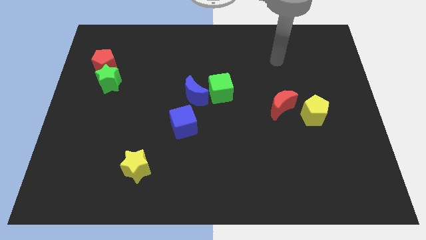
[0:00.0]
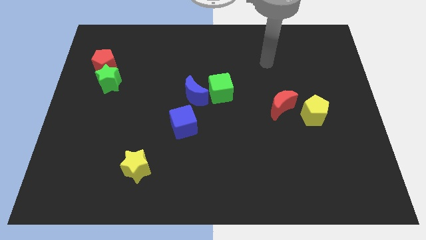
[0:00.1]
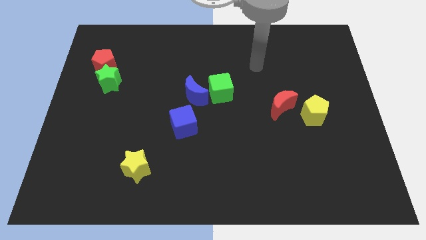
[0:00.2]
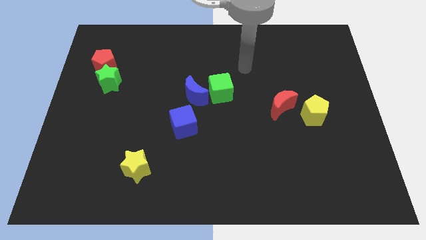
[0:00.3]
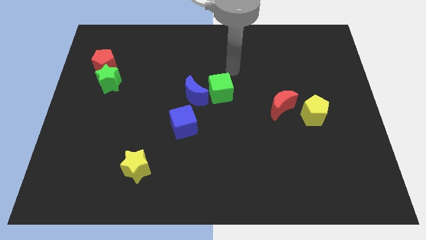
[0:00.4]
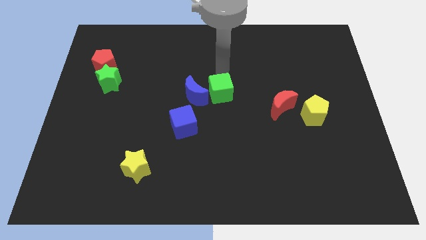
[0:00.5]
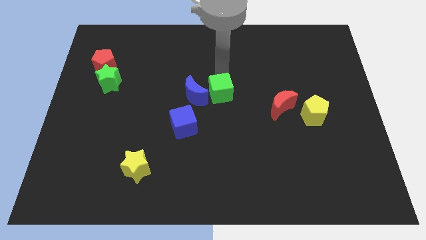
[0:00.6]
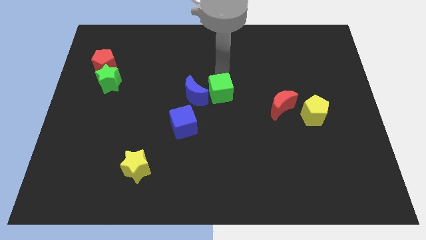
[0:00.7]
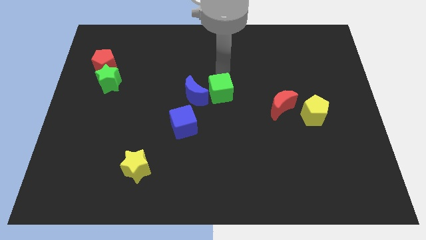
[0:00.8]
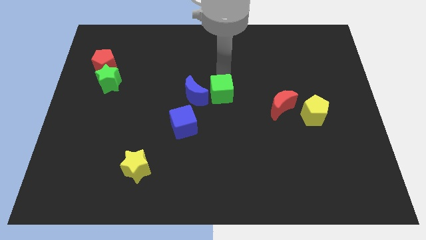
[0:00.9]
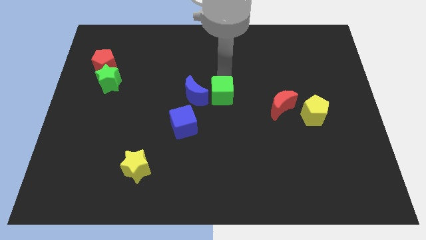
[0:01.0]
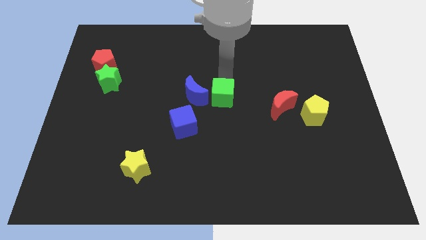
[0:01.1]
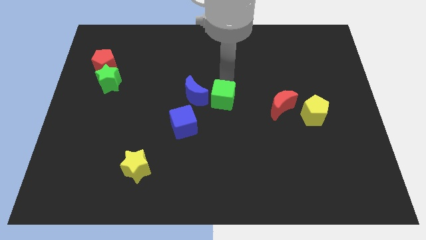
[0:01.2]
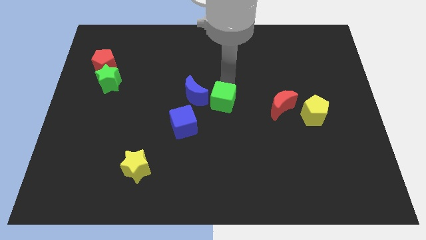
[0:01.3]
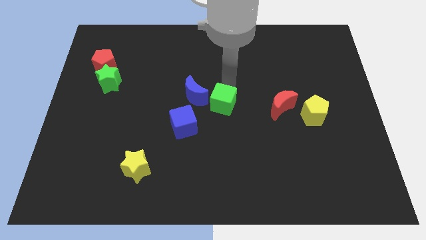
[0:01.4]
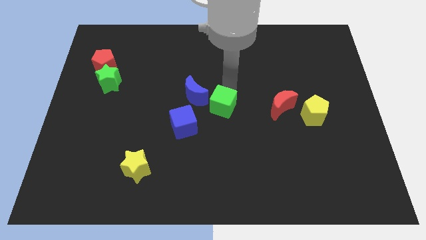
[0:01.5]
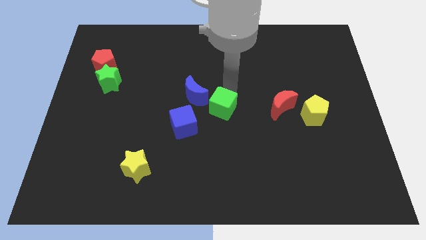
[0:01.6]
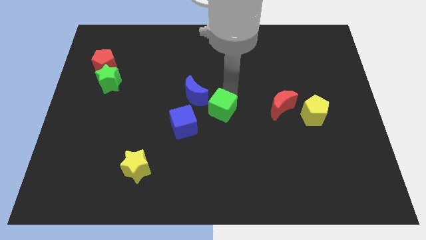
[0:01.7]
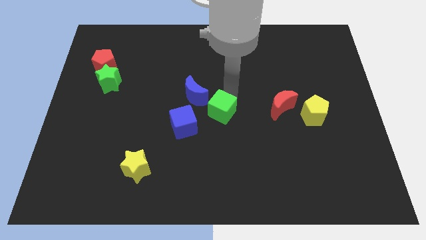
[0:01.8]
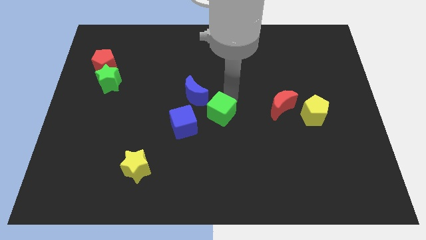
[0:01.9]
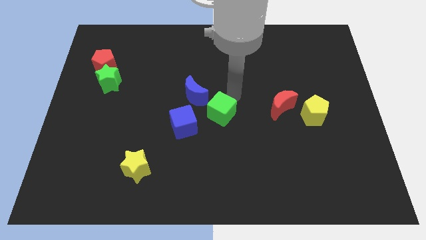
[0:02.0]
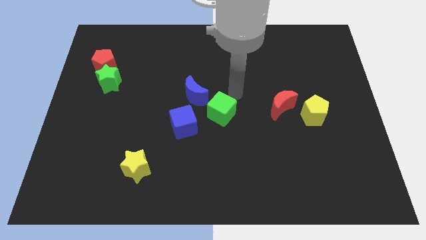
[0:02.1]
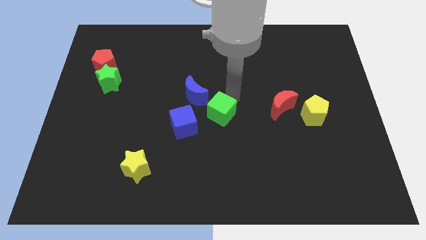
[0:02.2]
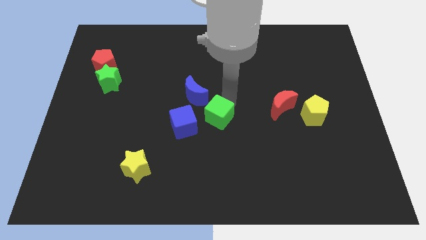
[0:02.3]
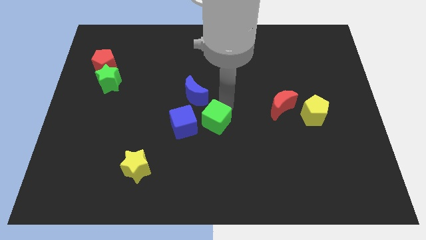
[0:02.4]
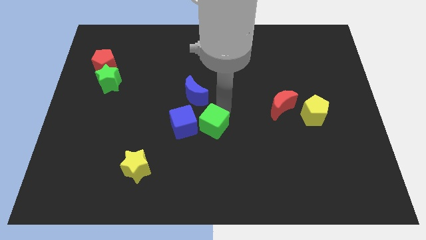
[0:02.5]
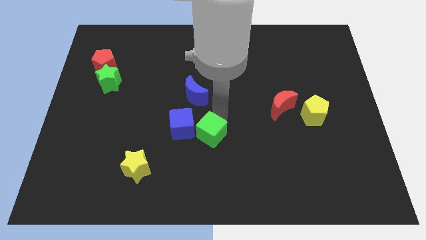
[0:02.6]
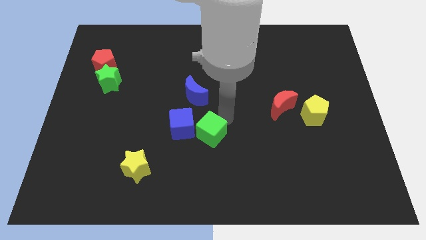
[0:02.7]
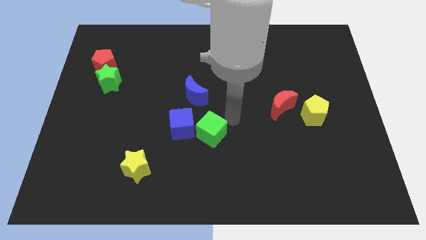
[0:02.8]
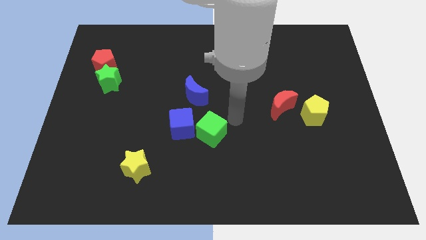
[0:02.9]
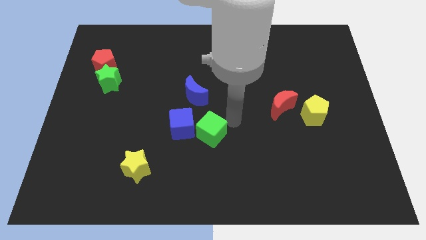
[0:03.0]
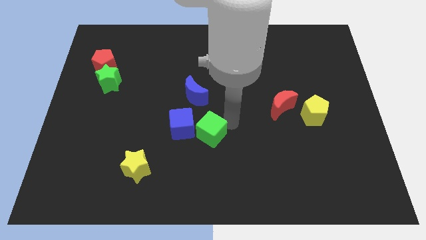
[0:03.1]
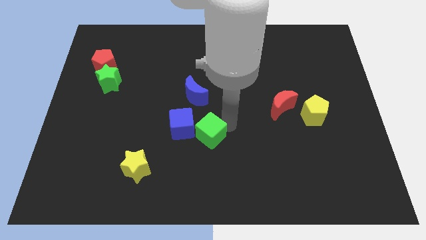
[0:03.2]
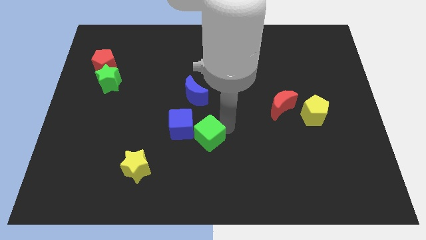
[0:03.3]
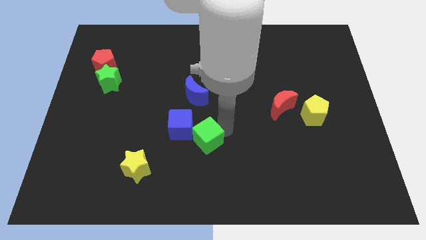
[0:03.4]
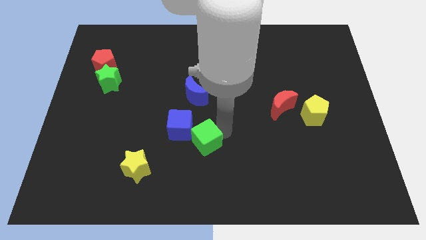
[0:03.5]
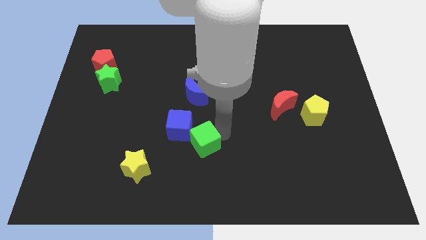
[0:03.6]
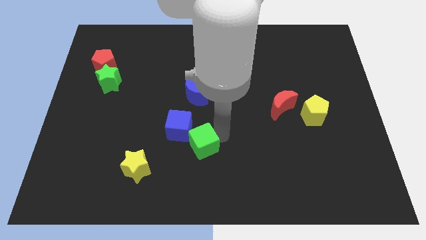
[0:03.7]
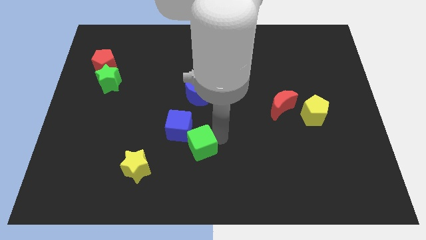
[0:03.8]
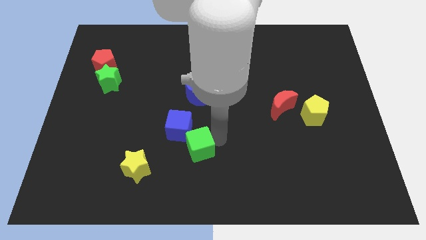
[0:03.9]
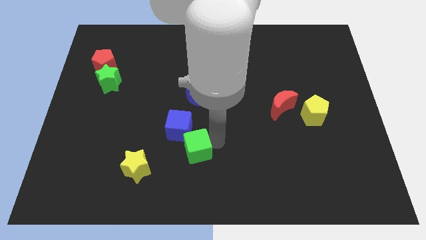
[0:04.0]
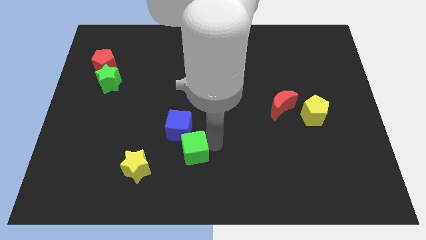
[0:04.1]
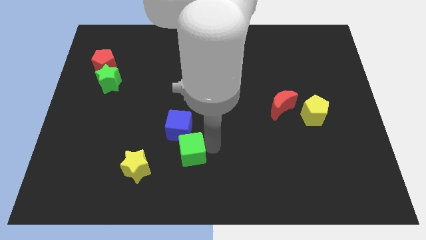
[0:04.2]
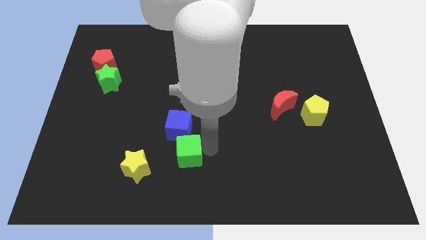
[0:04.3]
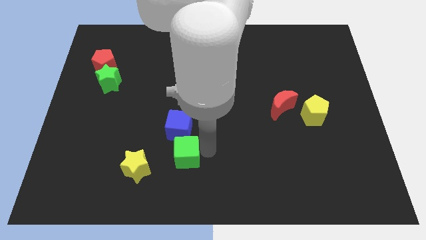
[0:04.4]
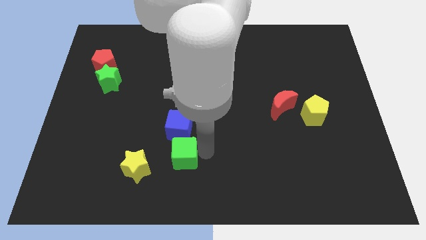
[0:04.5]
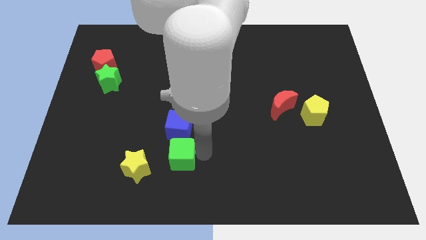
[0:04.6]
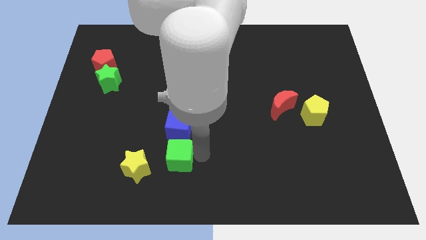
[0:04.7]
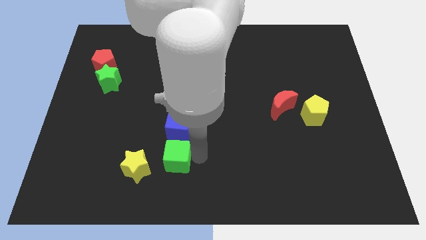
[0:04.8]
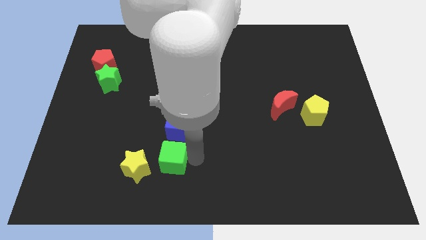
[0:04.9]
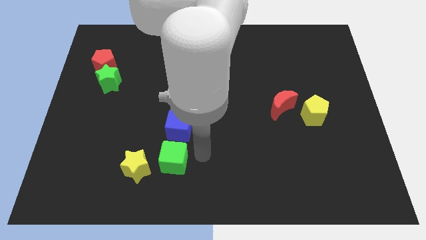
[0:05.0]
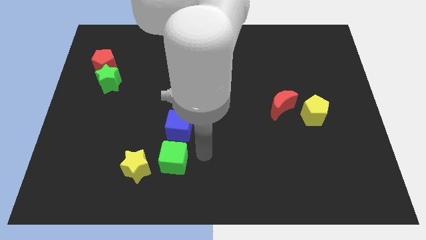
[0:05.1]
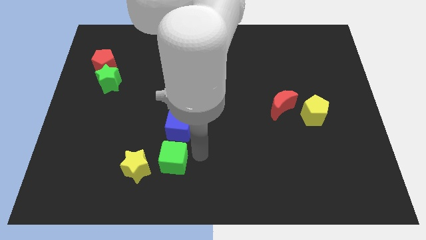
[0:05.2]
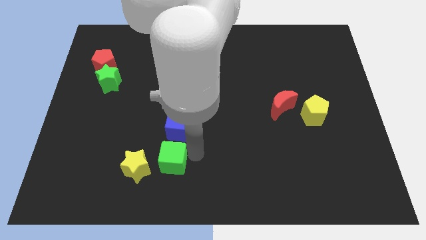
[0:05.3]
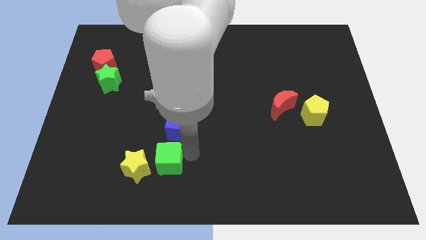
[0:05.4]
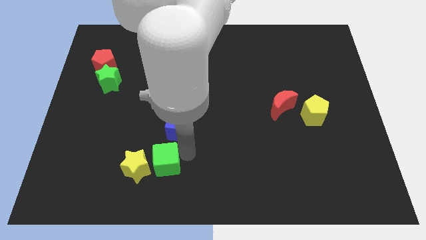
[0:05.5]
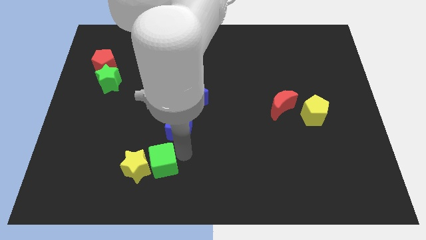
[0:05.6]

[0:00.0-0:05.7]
move the green cube close to the yellow star

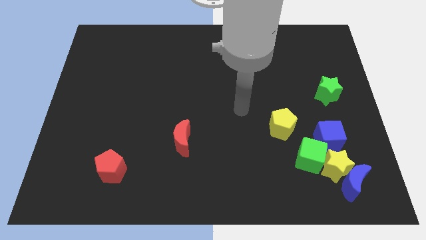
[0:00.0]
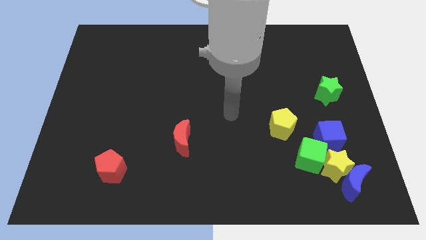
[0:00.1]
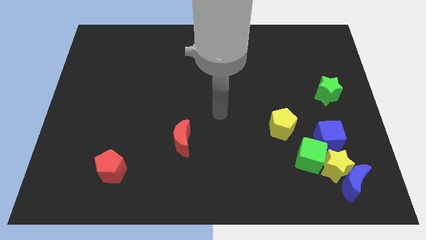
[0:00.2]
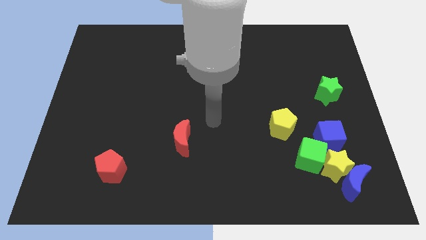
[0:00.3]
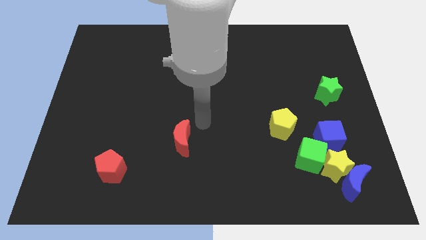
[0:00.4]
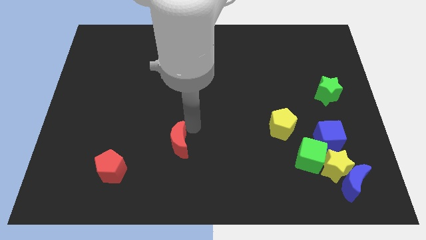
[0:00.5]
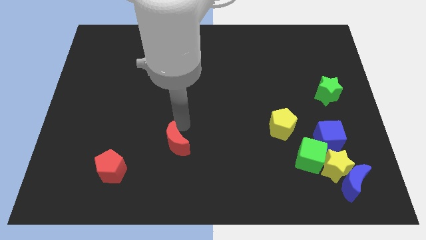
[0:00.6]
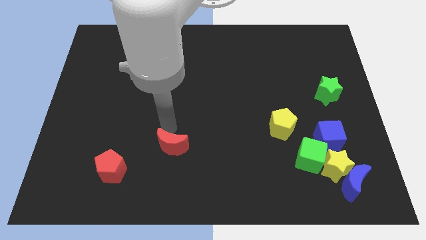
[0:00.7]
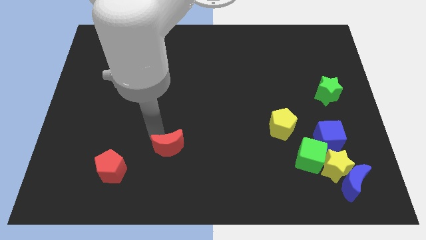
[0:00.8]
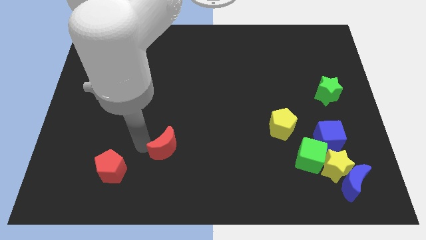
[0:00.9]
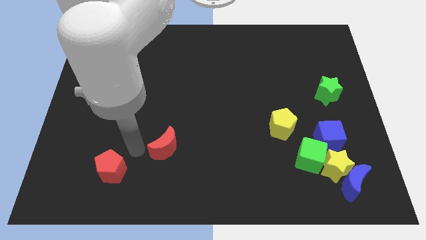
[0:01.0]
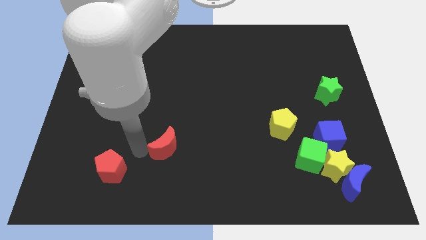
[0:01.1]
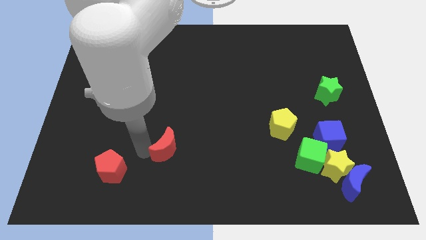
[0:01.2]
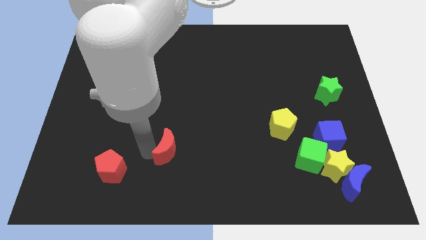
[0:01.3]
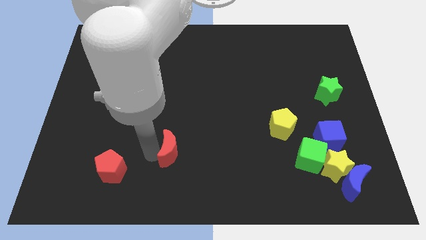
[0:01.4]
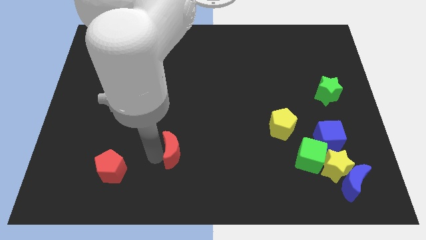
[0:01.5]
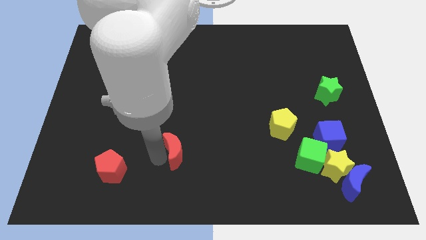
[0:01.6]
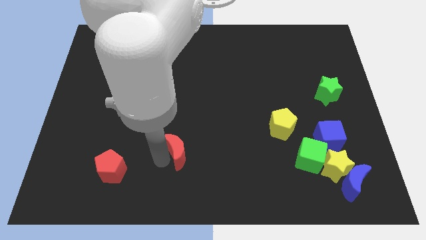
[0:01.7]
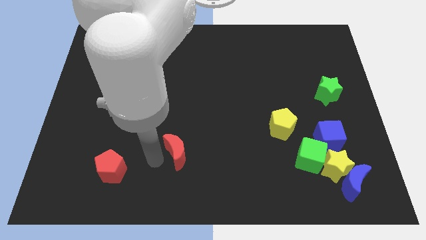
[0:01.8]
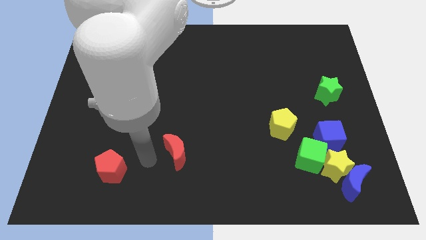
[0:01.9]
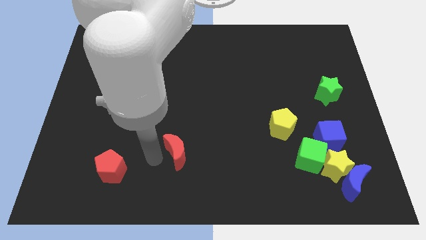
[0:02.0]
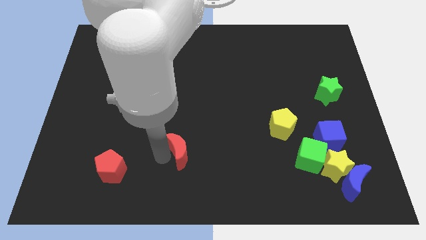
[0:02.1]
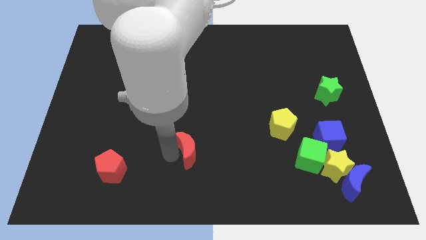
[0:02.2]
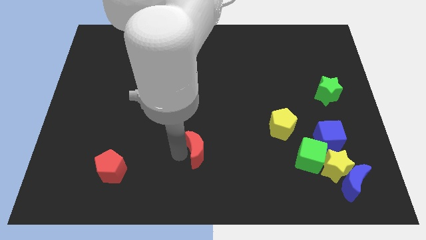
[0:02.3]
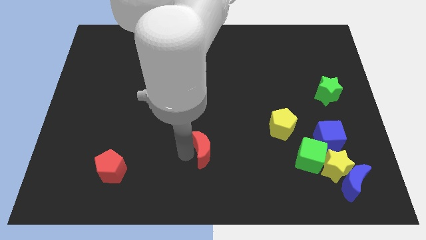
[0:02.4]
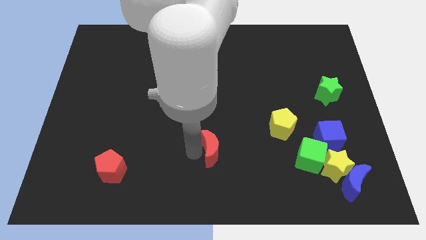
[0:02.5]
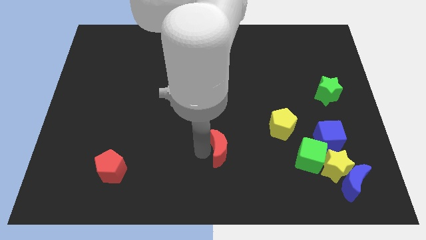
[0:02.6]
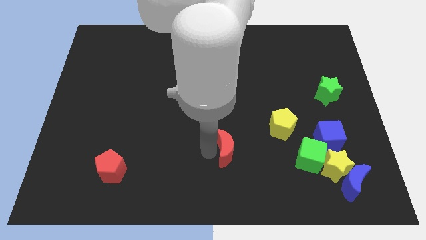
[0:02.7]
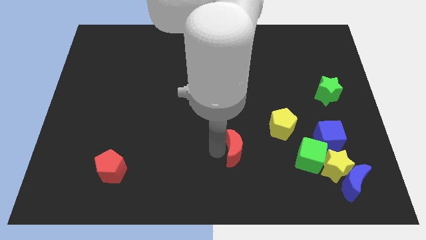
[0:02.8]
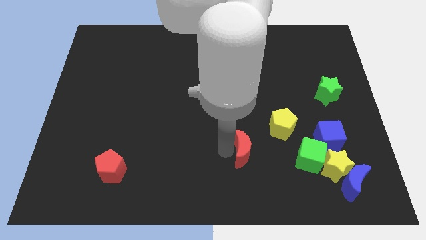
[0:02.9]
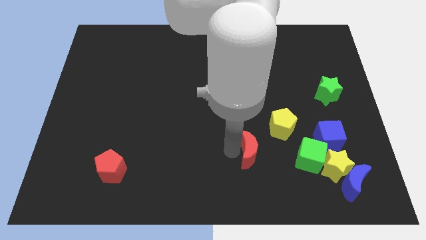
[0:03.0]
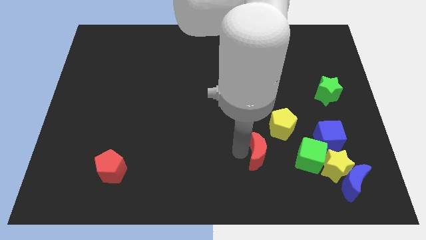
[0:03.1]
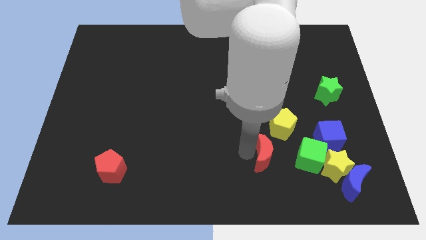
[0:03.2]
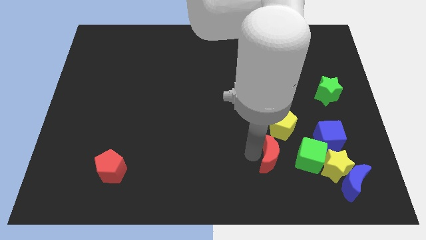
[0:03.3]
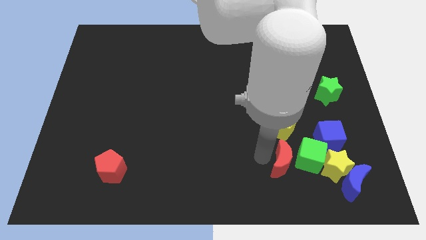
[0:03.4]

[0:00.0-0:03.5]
put the red moon to the green cube
